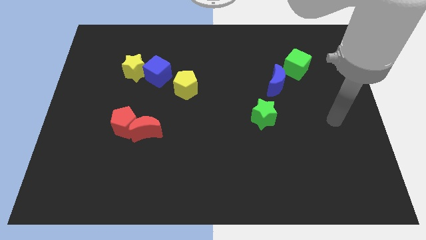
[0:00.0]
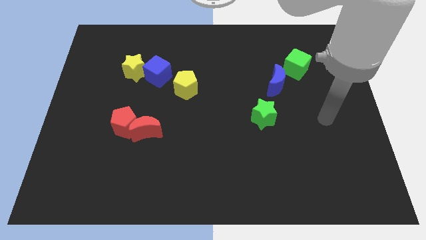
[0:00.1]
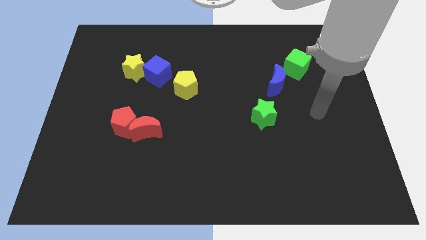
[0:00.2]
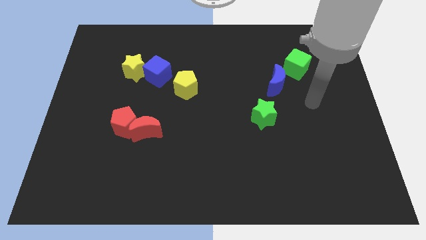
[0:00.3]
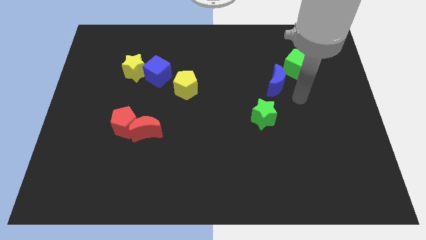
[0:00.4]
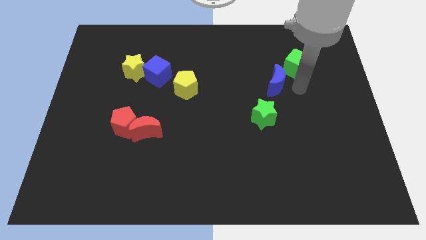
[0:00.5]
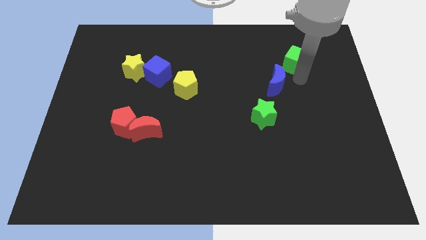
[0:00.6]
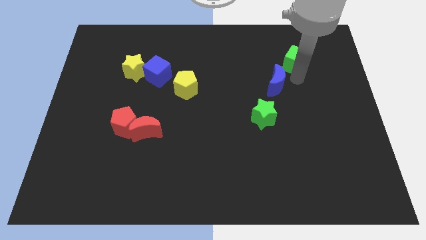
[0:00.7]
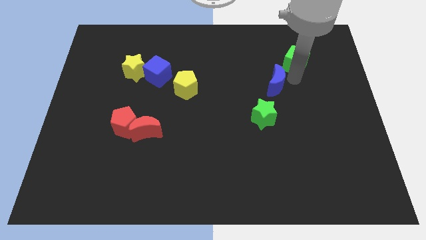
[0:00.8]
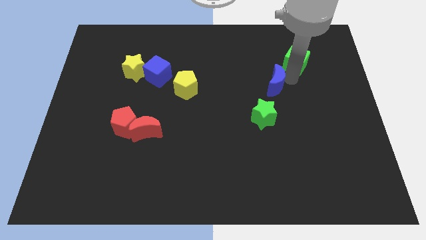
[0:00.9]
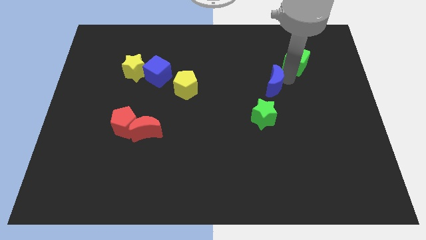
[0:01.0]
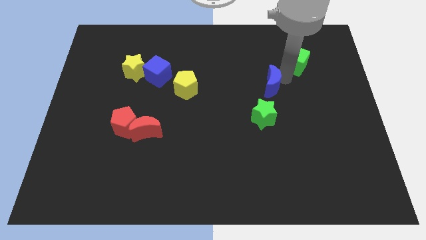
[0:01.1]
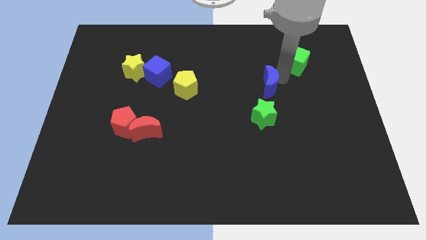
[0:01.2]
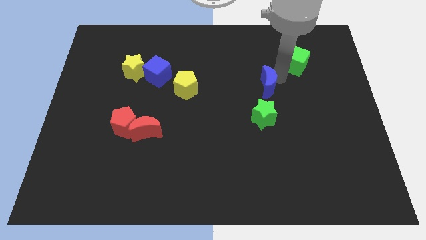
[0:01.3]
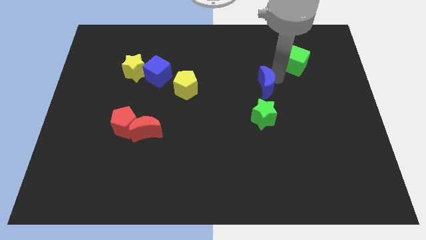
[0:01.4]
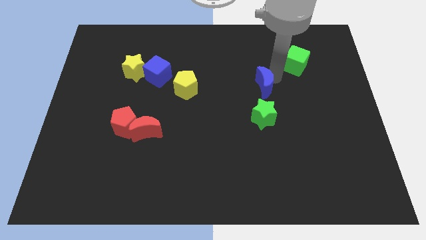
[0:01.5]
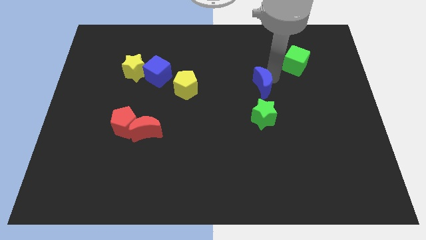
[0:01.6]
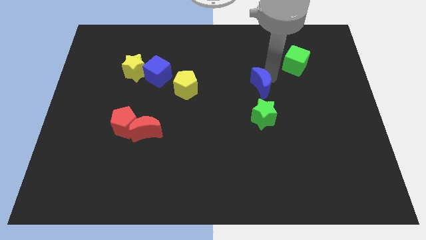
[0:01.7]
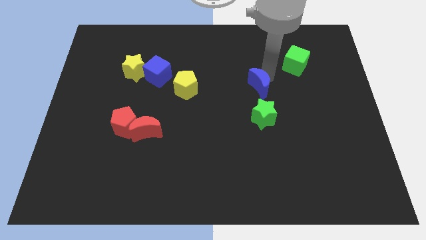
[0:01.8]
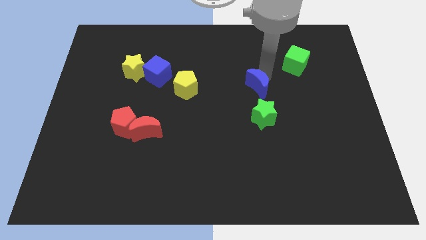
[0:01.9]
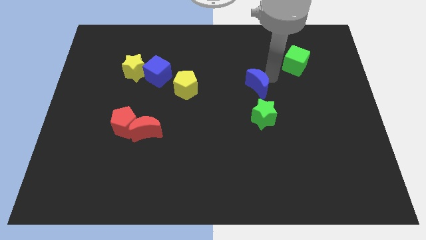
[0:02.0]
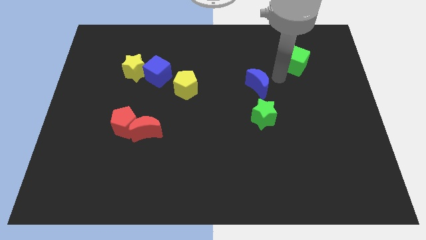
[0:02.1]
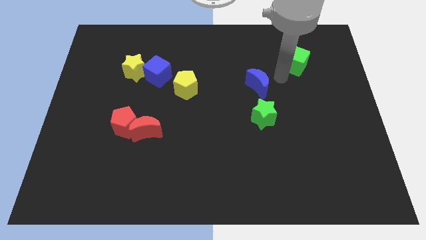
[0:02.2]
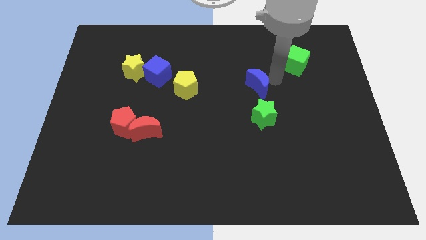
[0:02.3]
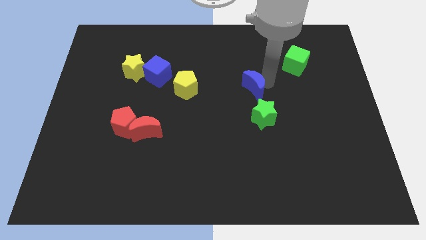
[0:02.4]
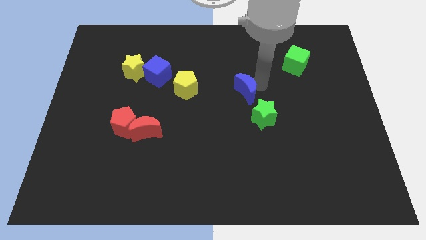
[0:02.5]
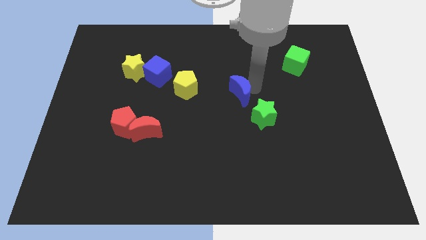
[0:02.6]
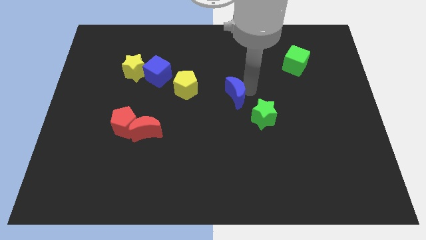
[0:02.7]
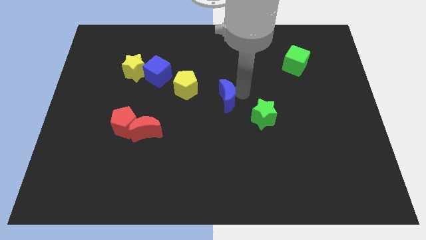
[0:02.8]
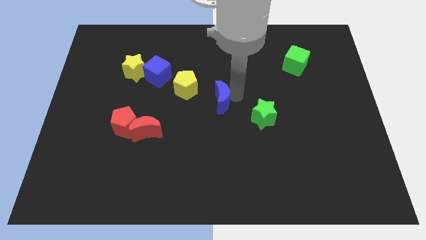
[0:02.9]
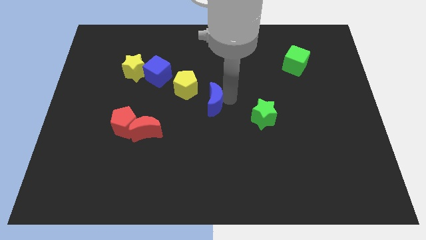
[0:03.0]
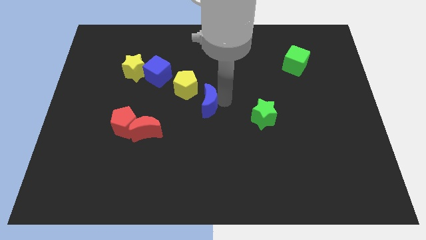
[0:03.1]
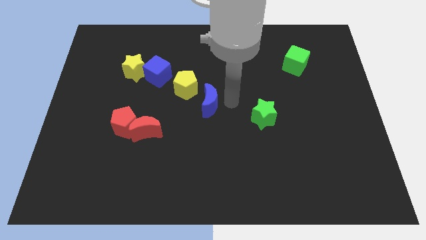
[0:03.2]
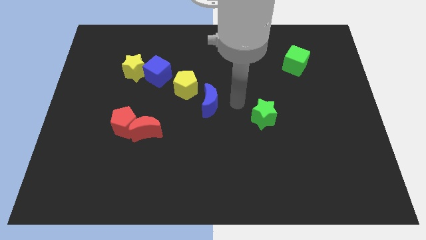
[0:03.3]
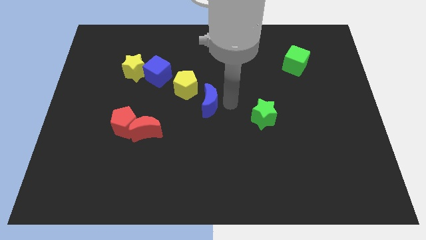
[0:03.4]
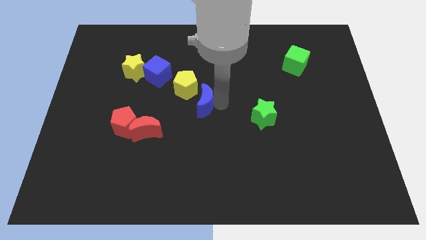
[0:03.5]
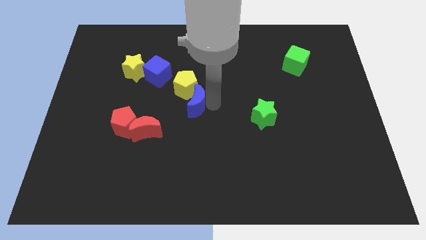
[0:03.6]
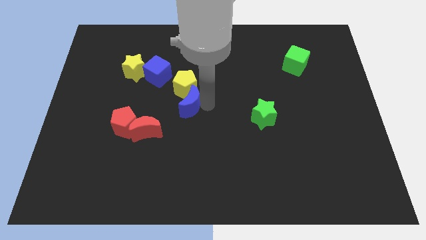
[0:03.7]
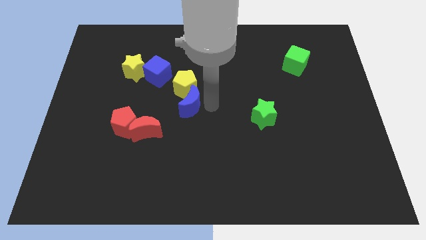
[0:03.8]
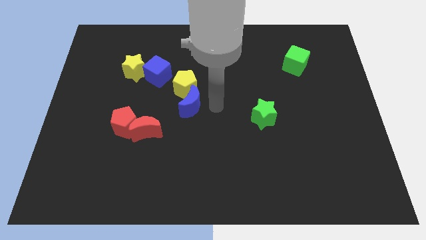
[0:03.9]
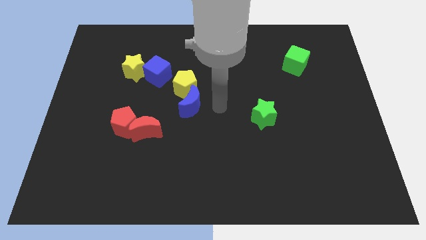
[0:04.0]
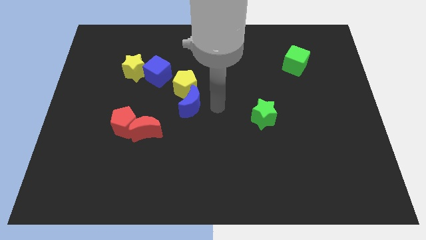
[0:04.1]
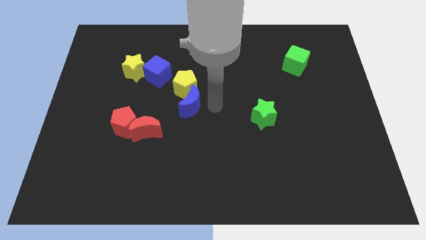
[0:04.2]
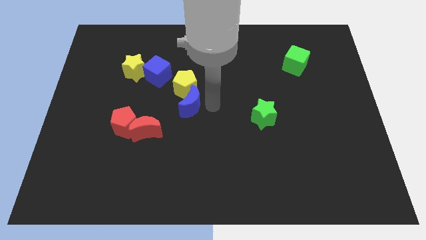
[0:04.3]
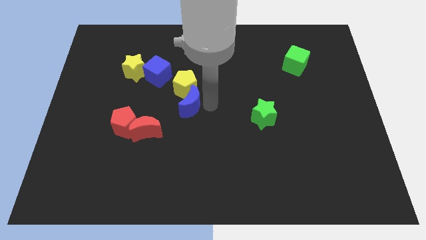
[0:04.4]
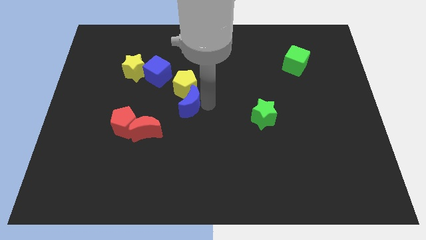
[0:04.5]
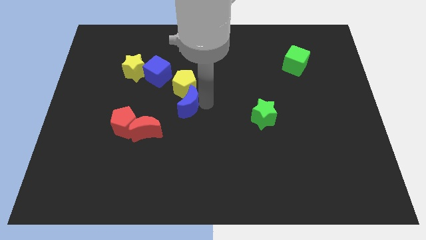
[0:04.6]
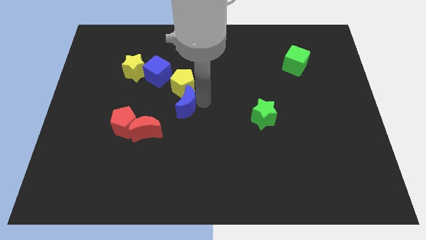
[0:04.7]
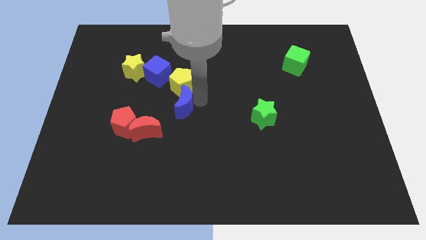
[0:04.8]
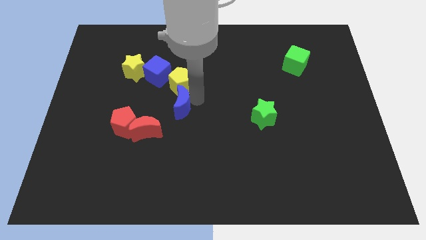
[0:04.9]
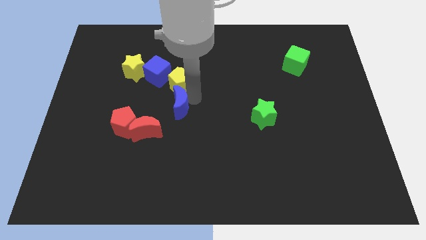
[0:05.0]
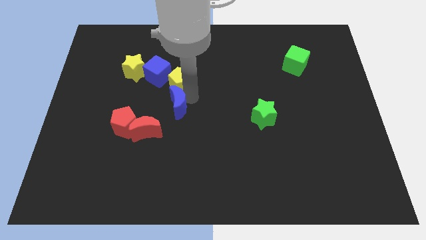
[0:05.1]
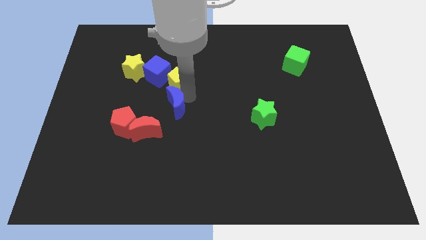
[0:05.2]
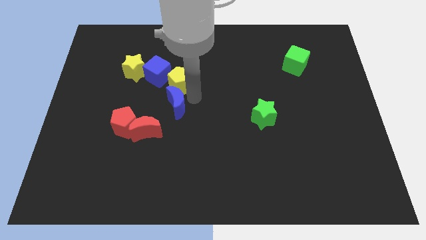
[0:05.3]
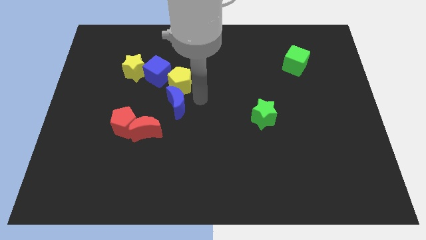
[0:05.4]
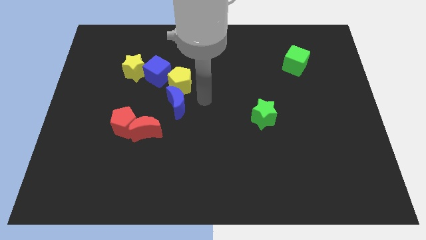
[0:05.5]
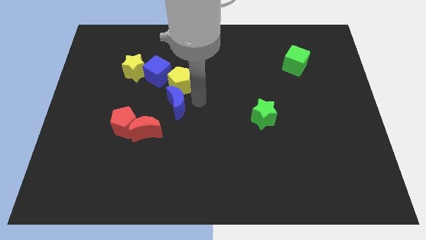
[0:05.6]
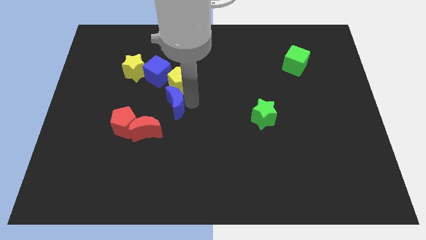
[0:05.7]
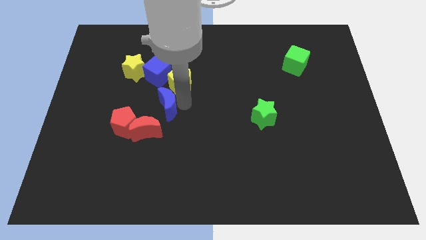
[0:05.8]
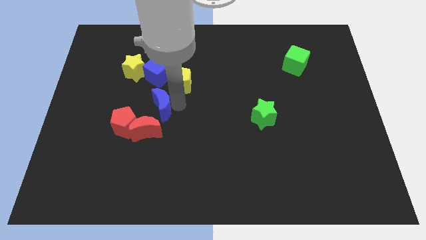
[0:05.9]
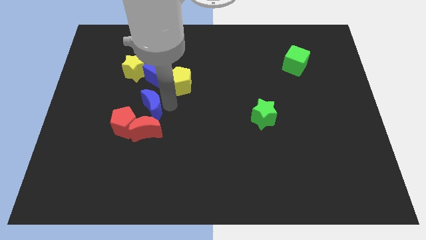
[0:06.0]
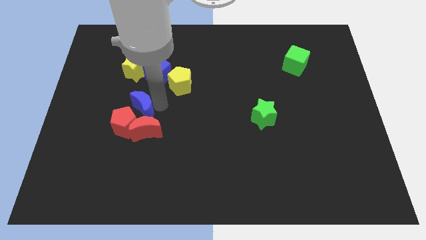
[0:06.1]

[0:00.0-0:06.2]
put the blue moon to the red pentagon
